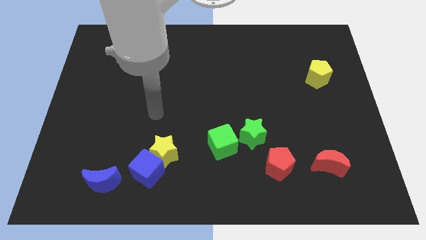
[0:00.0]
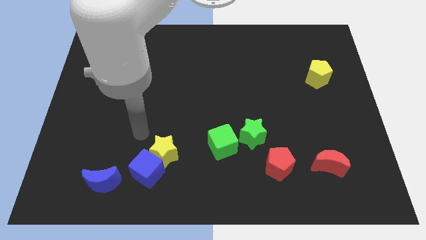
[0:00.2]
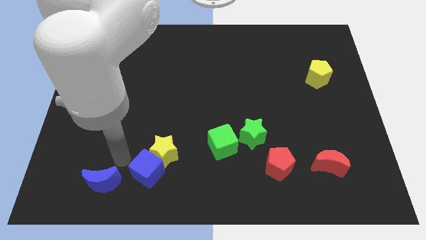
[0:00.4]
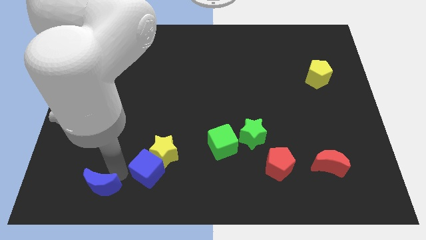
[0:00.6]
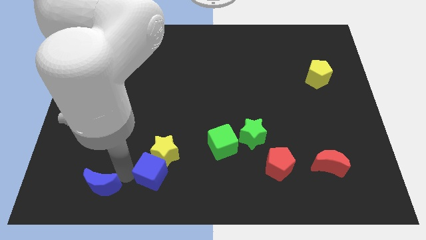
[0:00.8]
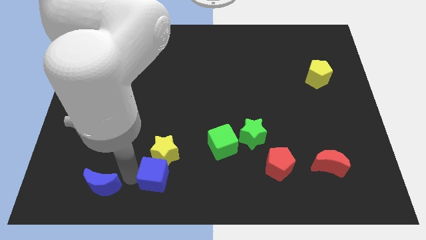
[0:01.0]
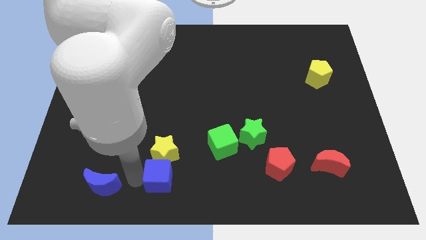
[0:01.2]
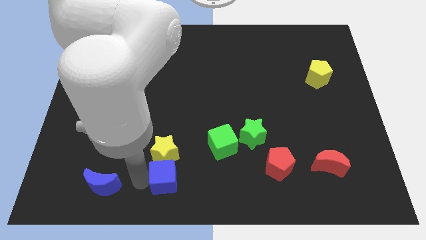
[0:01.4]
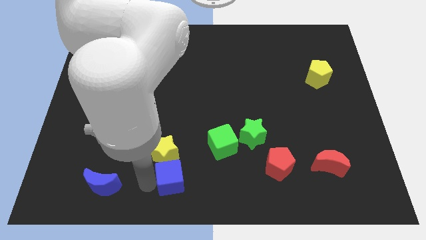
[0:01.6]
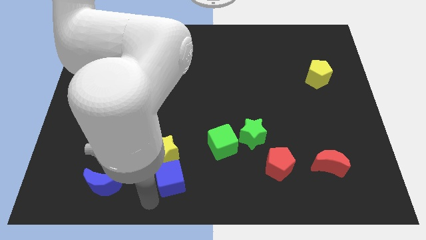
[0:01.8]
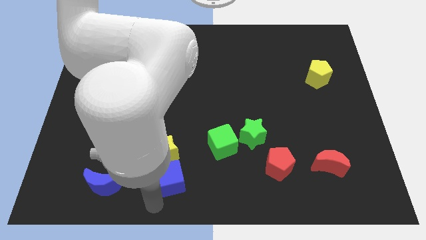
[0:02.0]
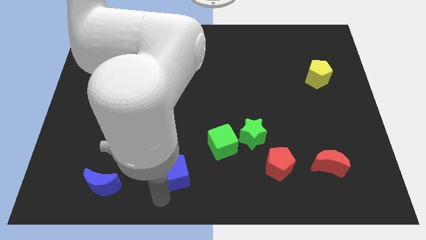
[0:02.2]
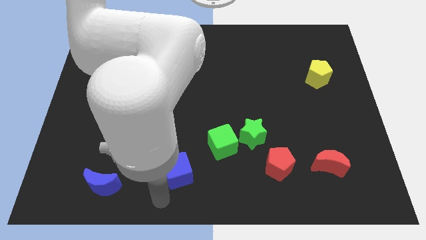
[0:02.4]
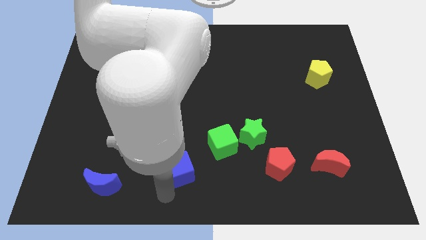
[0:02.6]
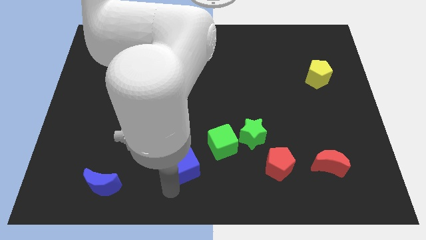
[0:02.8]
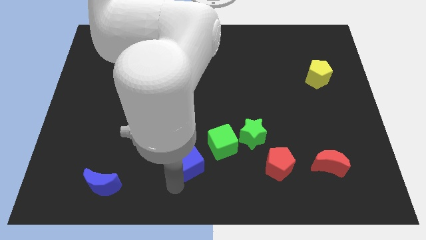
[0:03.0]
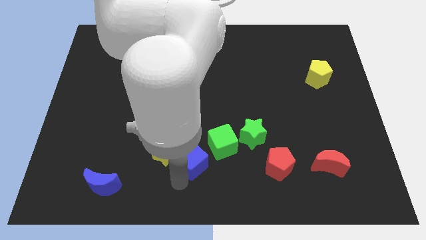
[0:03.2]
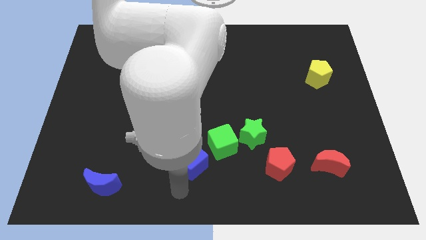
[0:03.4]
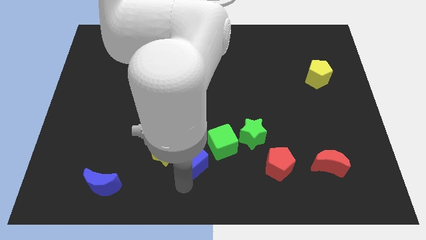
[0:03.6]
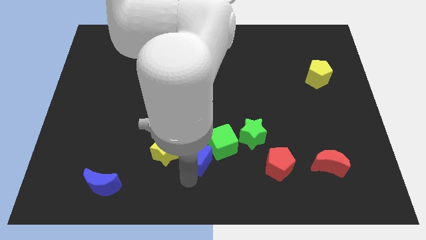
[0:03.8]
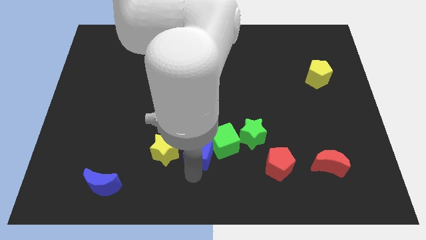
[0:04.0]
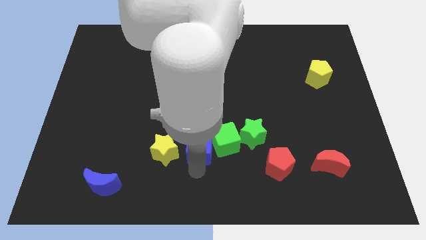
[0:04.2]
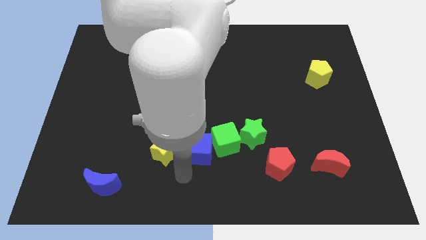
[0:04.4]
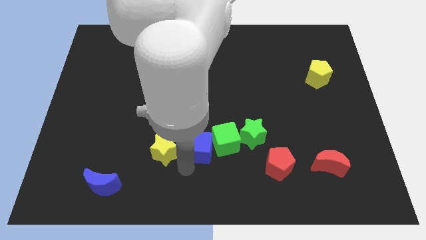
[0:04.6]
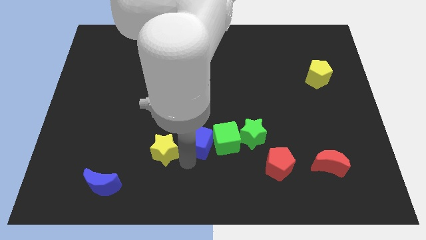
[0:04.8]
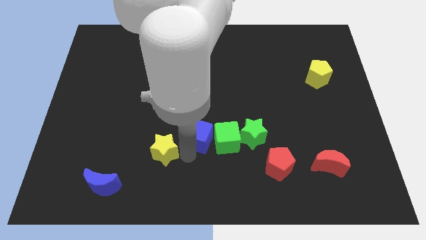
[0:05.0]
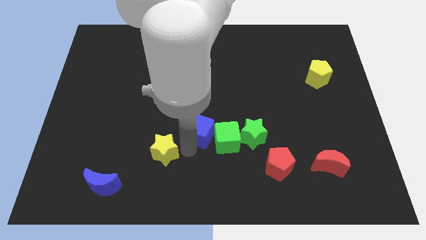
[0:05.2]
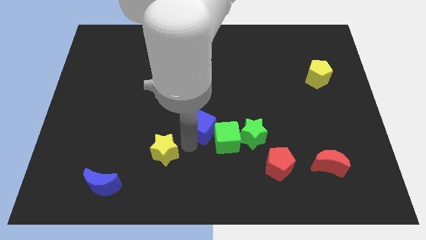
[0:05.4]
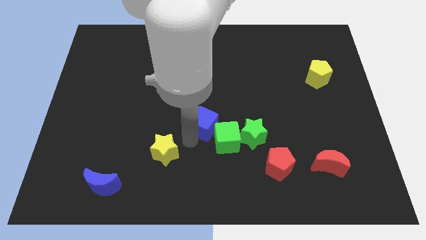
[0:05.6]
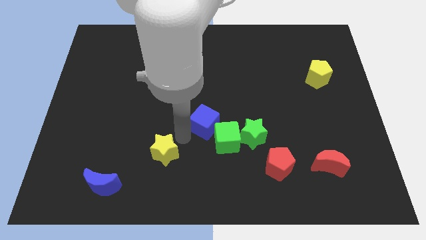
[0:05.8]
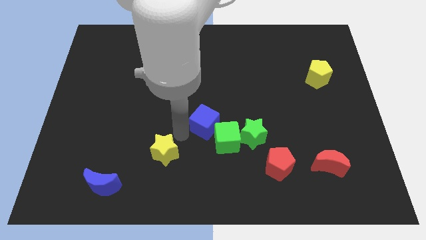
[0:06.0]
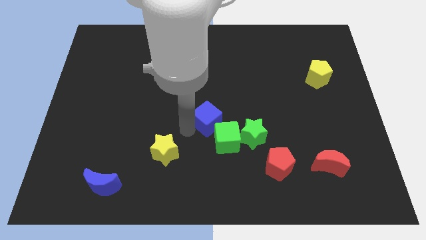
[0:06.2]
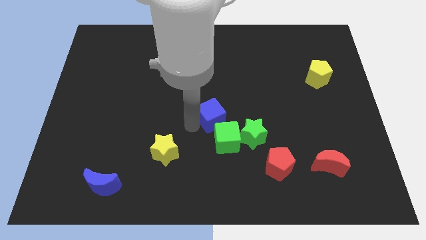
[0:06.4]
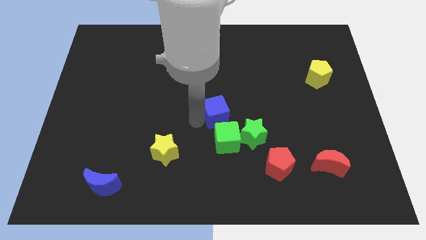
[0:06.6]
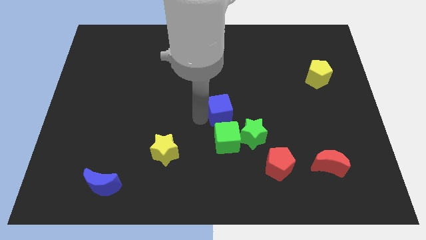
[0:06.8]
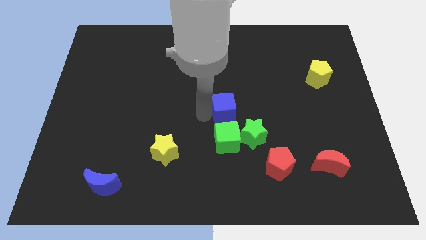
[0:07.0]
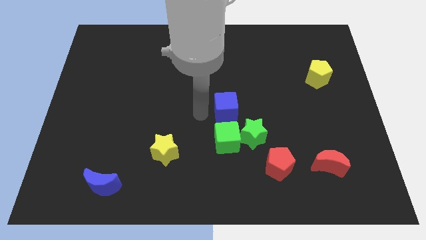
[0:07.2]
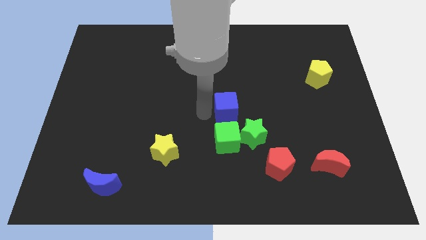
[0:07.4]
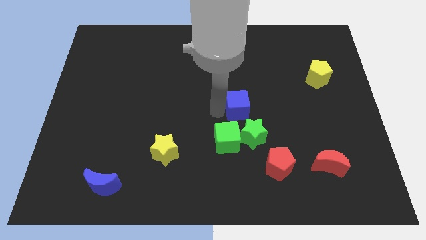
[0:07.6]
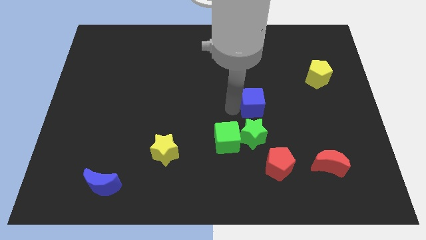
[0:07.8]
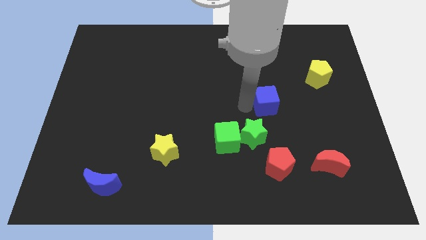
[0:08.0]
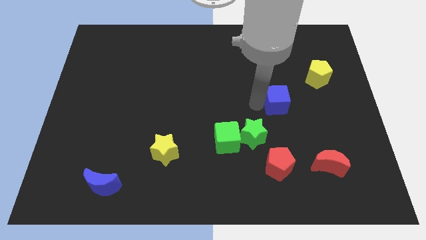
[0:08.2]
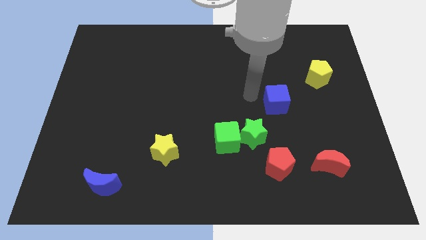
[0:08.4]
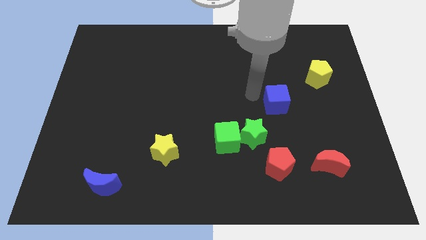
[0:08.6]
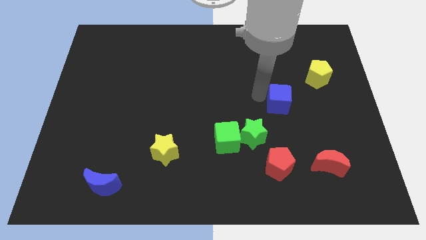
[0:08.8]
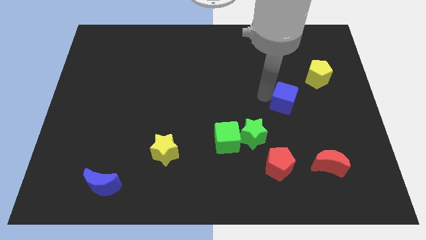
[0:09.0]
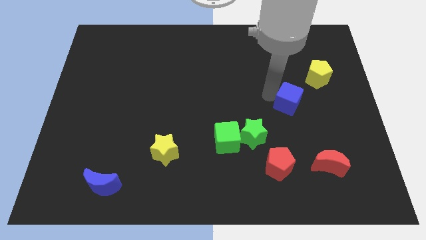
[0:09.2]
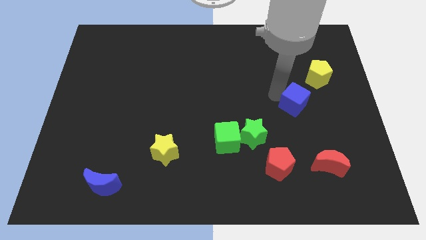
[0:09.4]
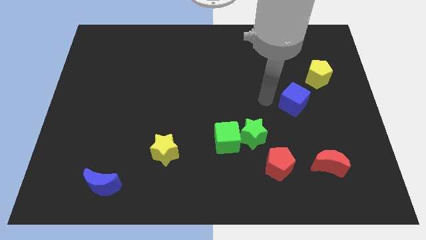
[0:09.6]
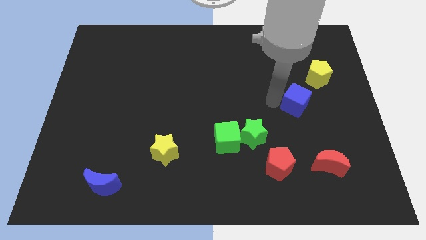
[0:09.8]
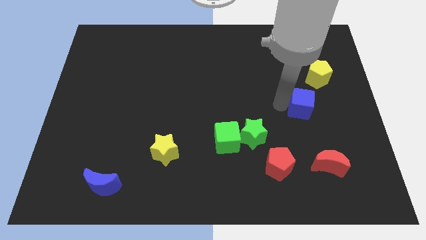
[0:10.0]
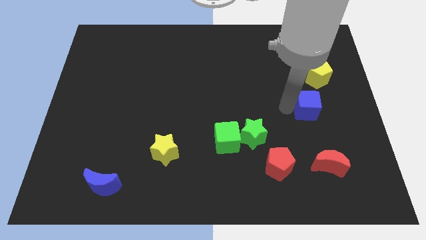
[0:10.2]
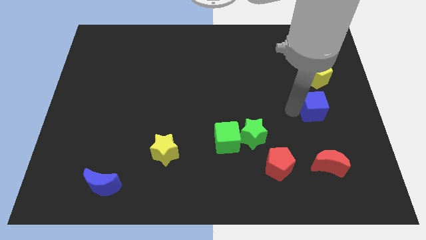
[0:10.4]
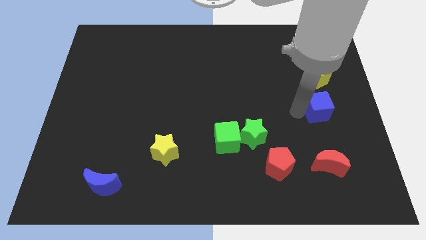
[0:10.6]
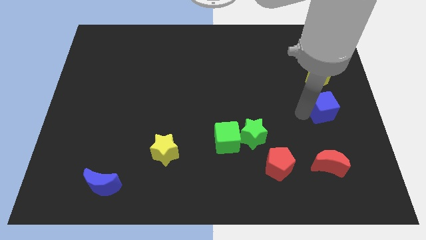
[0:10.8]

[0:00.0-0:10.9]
push the blue cube to the right side of the board
